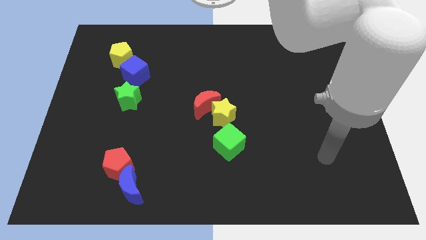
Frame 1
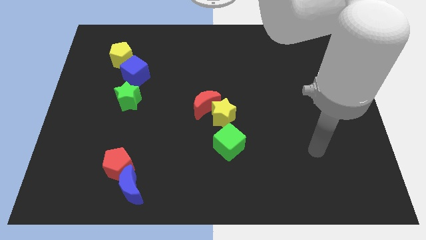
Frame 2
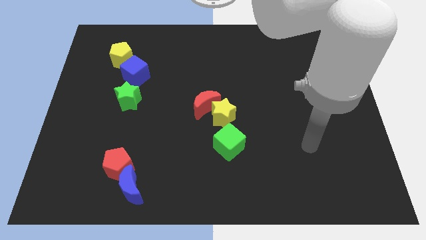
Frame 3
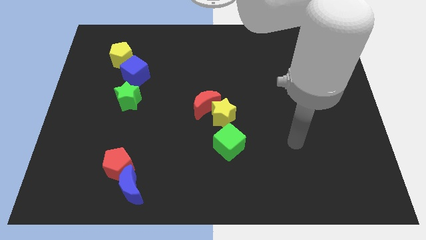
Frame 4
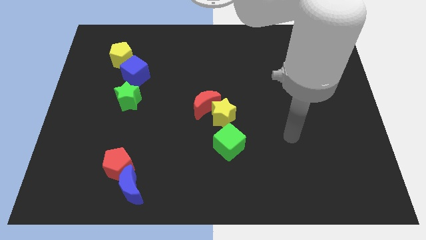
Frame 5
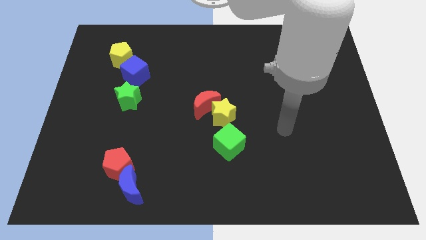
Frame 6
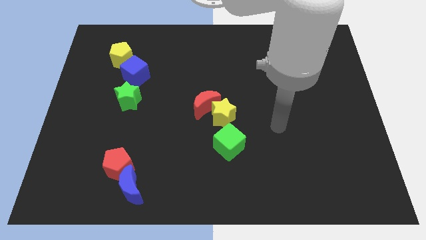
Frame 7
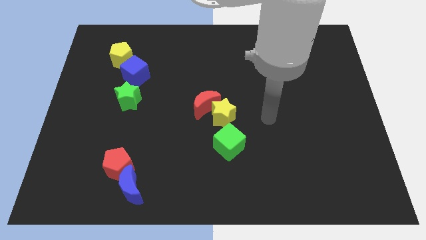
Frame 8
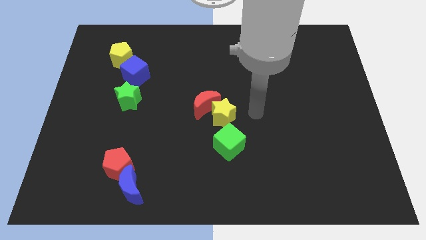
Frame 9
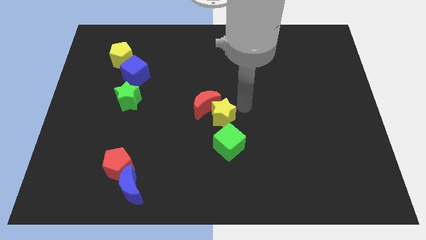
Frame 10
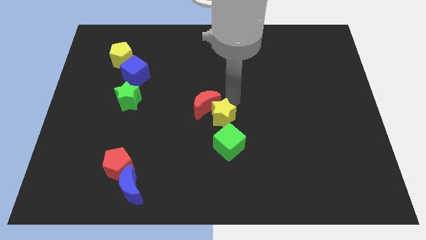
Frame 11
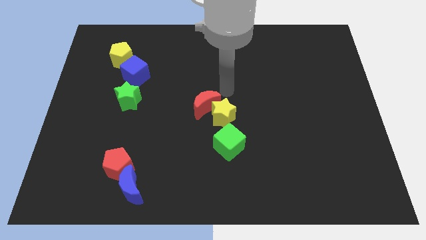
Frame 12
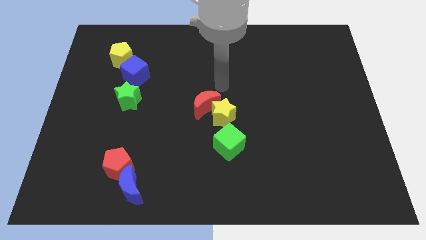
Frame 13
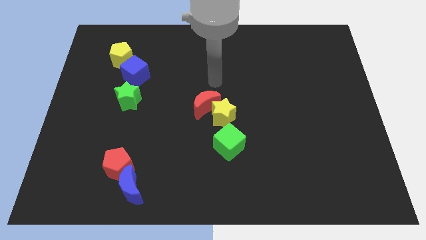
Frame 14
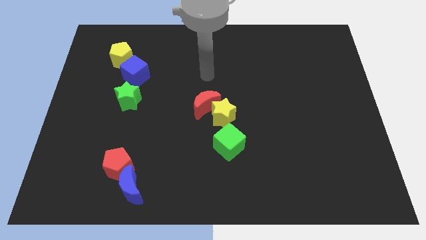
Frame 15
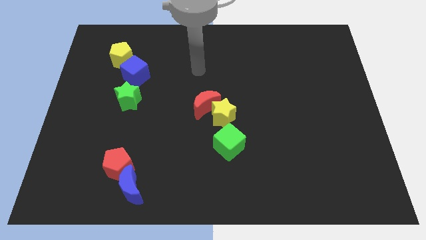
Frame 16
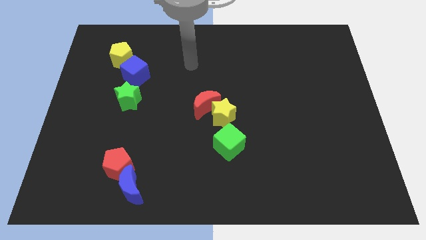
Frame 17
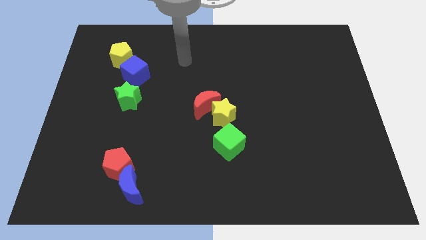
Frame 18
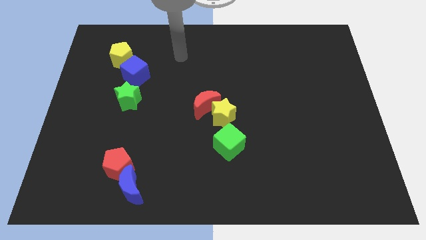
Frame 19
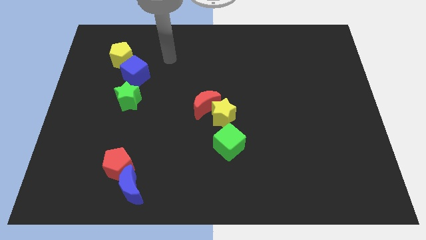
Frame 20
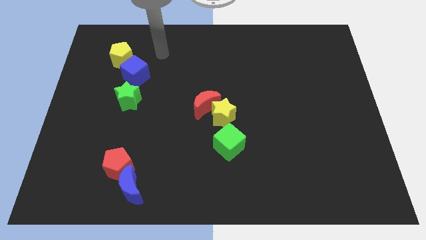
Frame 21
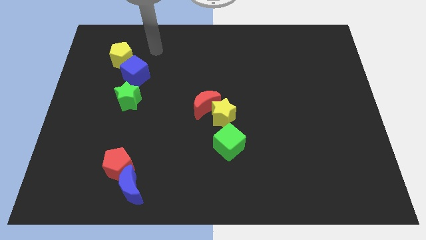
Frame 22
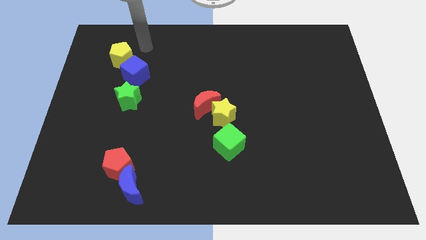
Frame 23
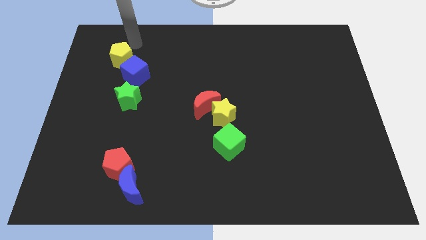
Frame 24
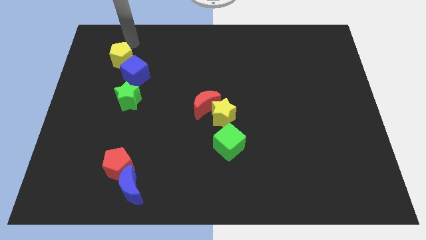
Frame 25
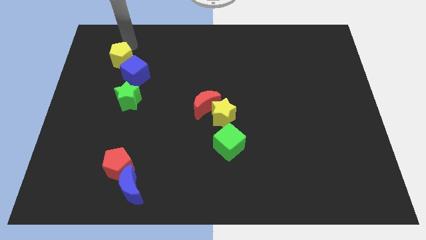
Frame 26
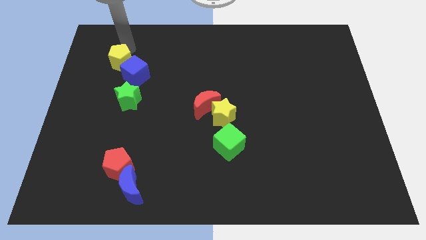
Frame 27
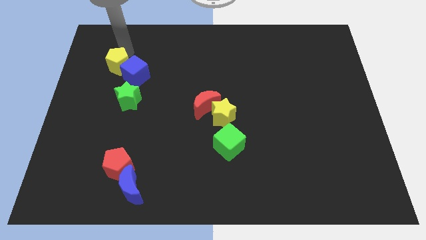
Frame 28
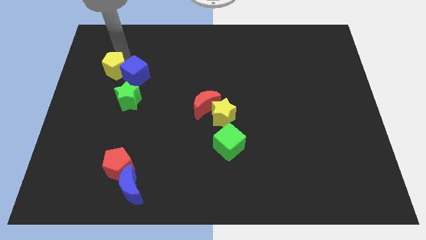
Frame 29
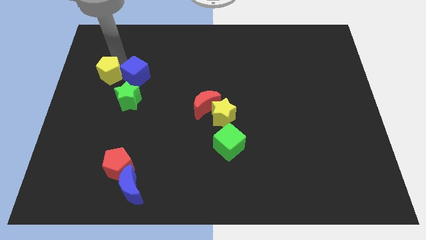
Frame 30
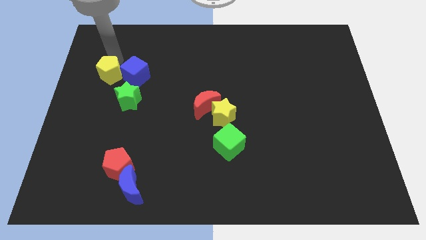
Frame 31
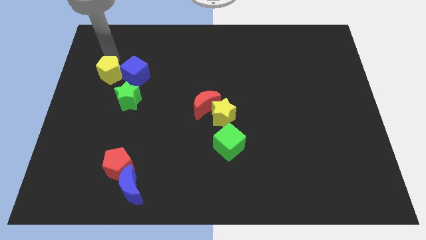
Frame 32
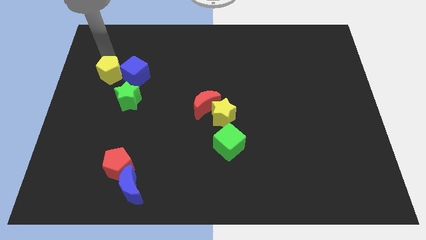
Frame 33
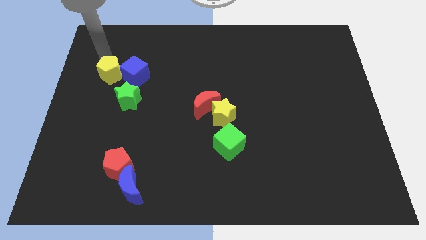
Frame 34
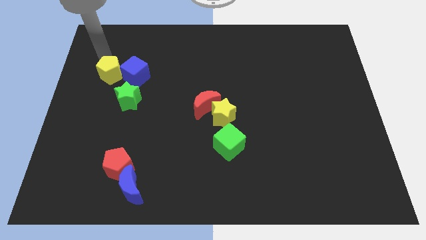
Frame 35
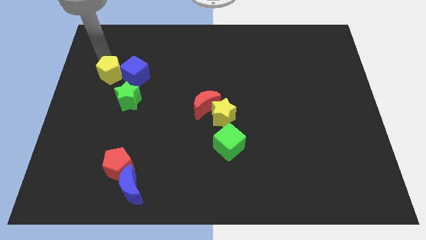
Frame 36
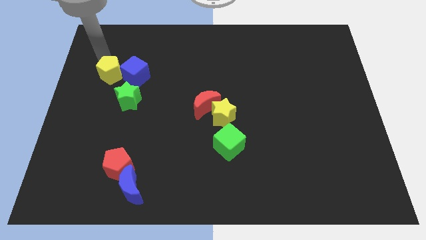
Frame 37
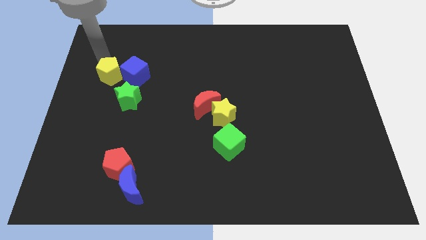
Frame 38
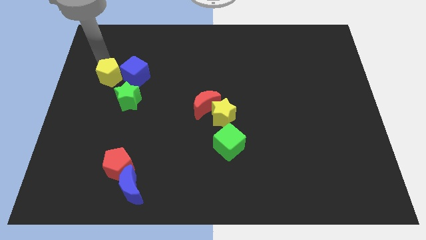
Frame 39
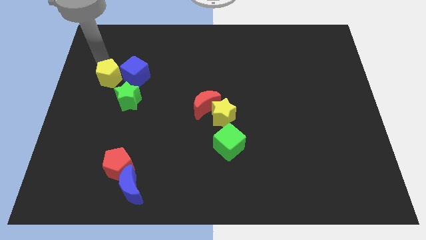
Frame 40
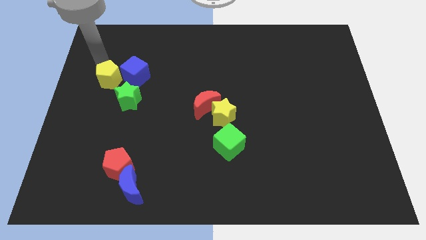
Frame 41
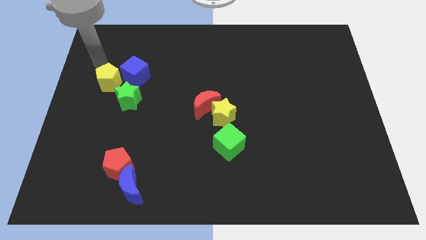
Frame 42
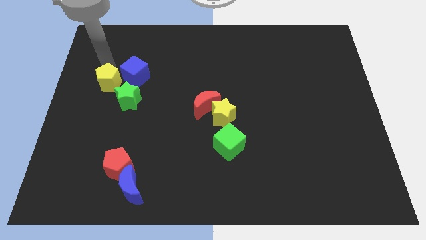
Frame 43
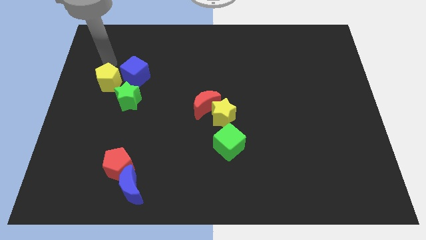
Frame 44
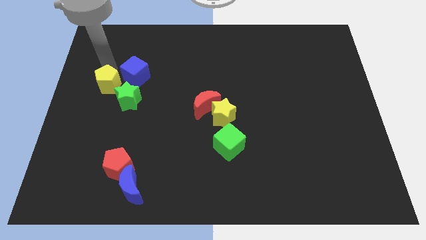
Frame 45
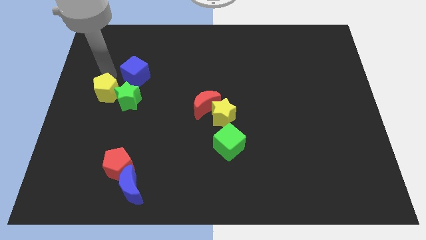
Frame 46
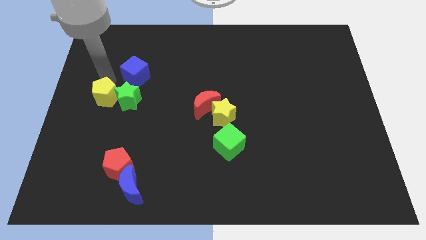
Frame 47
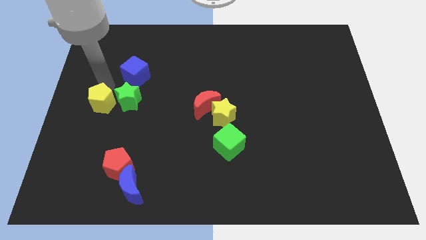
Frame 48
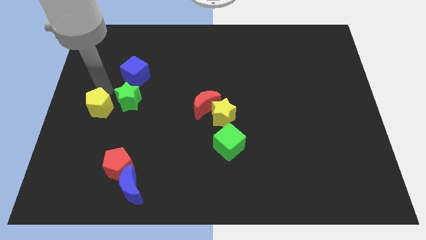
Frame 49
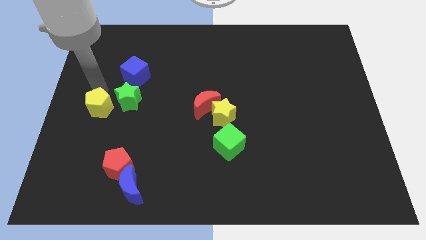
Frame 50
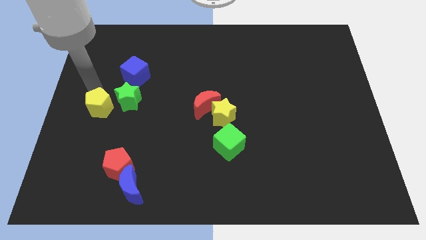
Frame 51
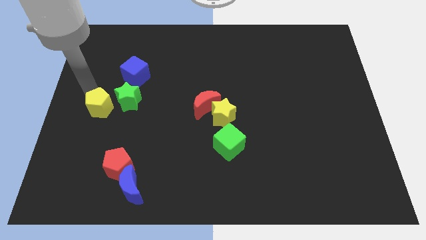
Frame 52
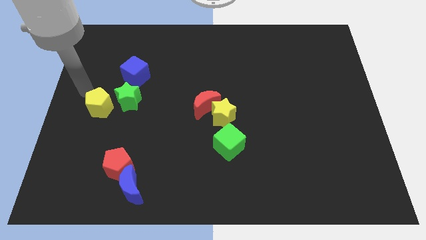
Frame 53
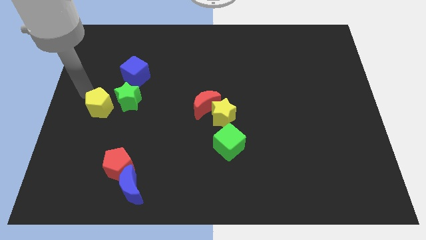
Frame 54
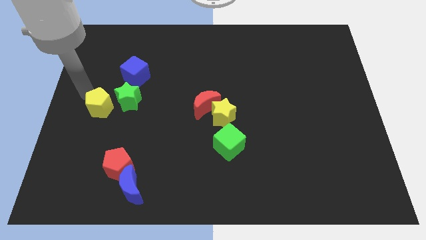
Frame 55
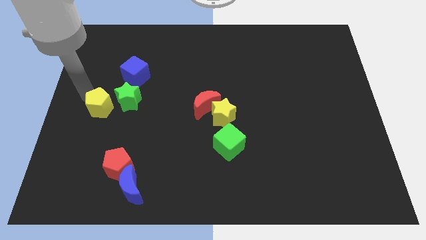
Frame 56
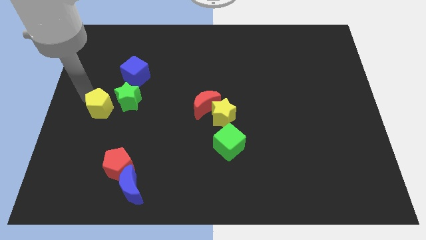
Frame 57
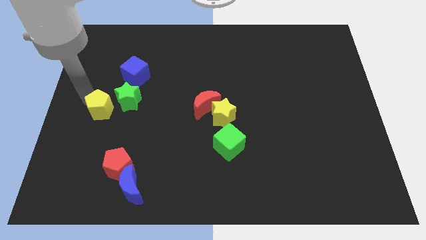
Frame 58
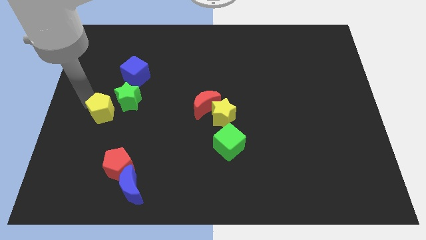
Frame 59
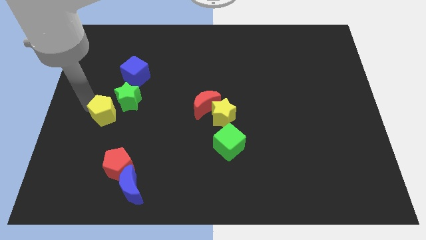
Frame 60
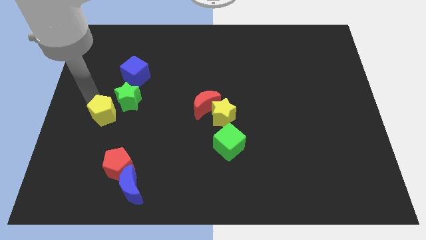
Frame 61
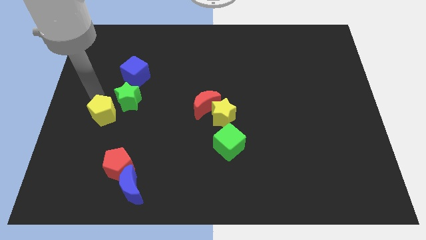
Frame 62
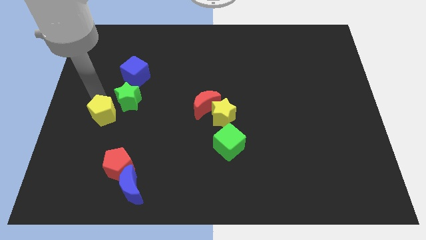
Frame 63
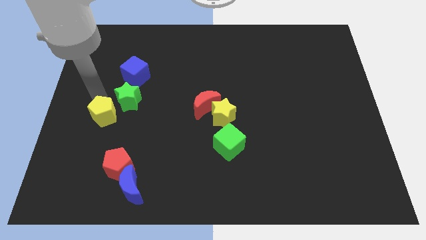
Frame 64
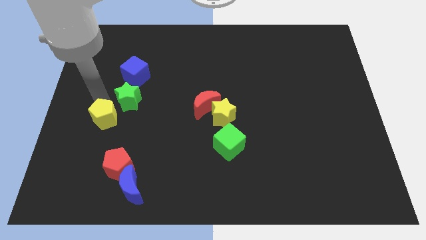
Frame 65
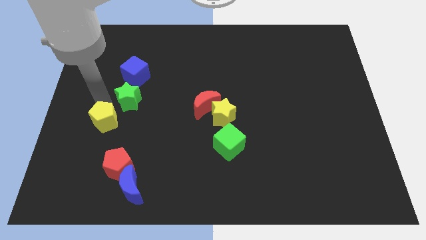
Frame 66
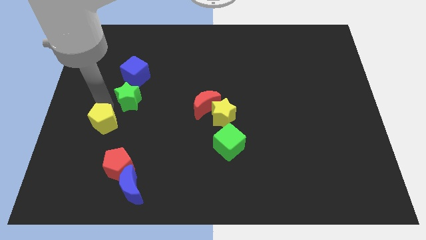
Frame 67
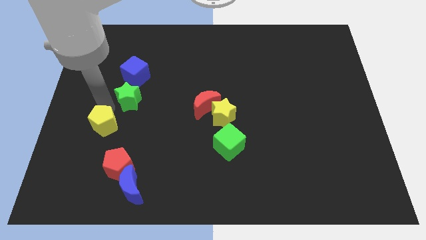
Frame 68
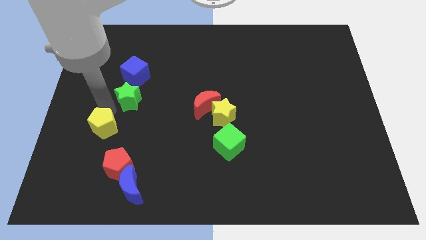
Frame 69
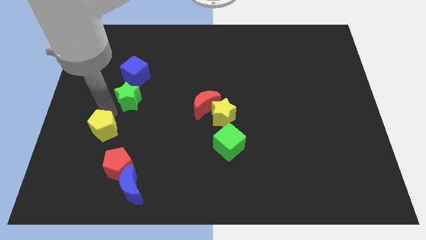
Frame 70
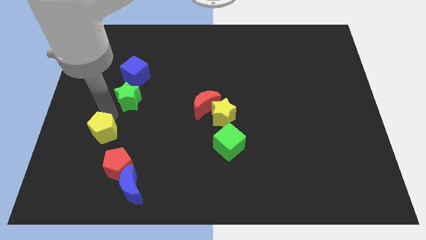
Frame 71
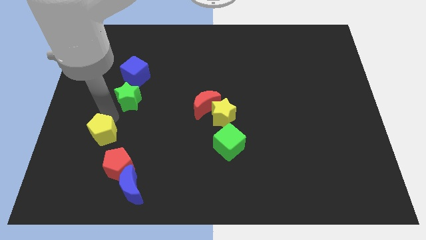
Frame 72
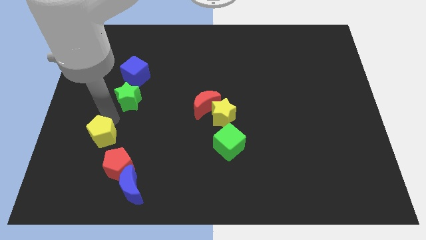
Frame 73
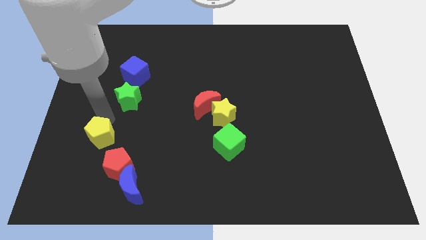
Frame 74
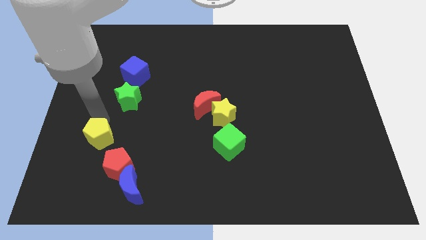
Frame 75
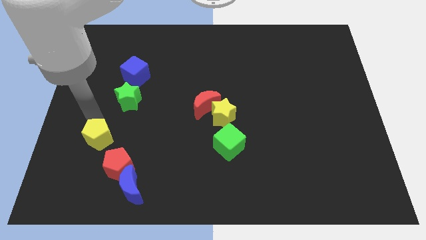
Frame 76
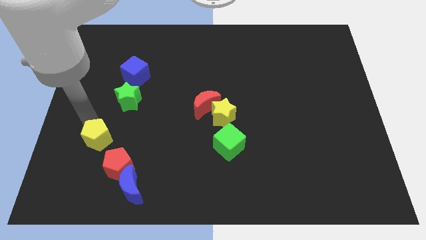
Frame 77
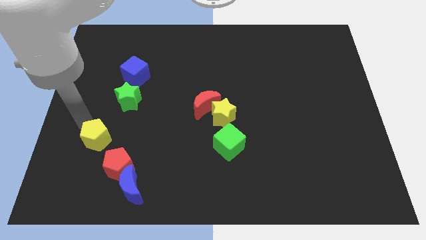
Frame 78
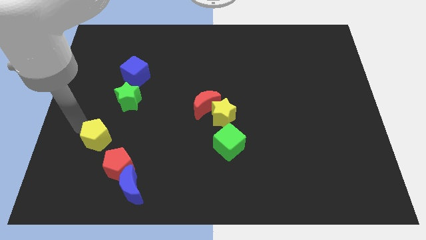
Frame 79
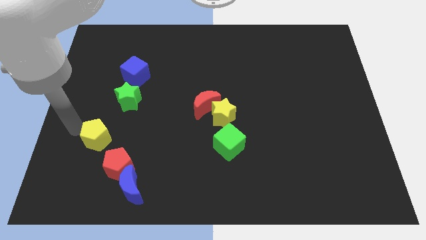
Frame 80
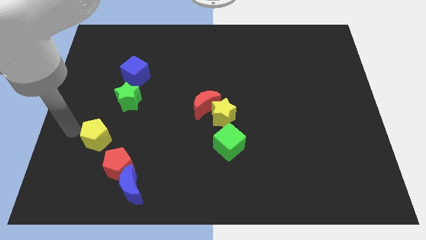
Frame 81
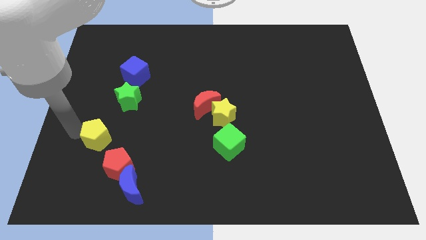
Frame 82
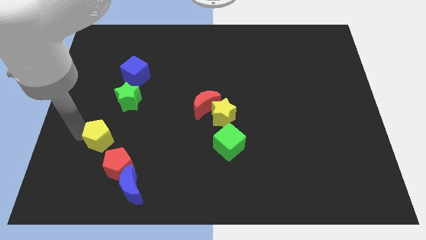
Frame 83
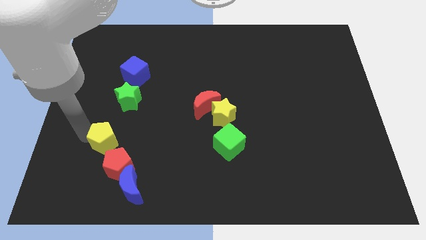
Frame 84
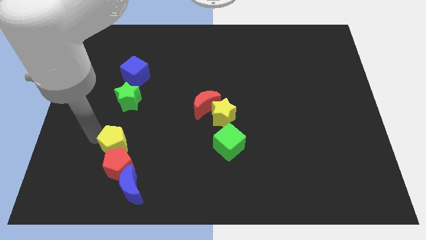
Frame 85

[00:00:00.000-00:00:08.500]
put the yellow pentagon towards the red pentagon
